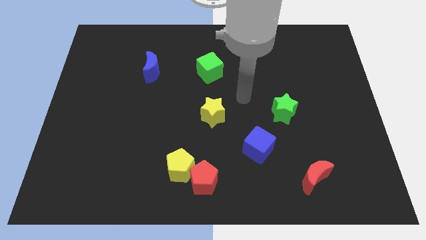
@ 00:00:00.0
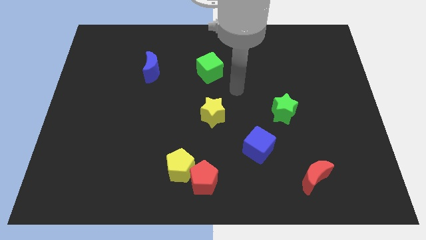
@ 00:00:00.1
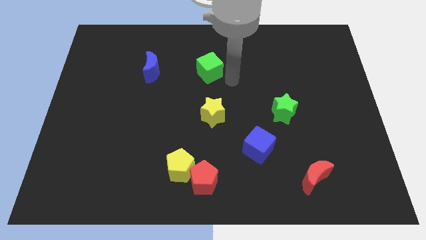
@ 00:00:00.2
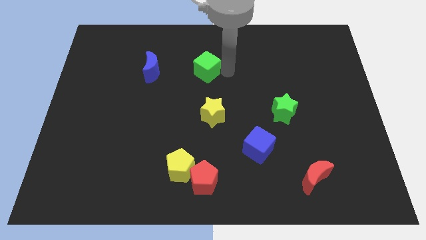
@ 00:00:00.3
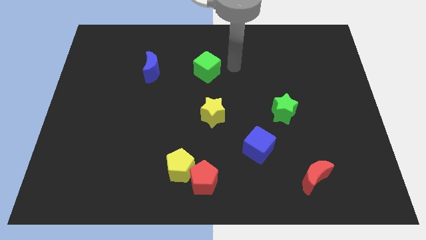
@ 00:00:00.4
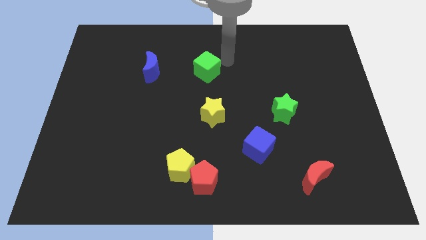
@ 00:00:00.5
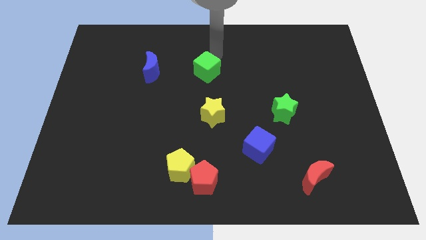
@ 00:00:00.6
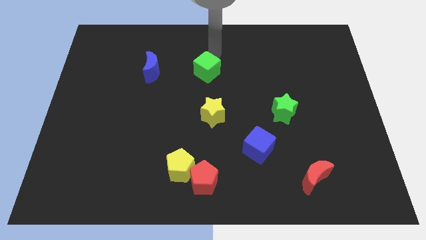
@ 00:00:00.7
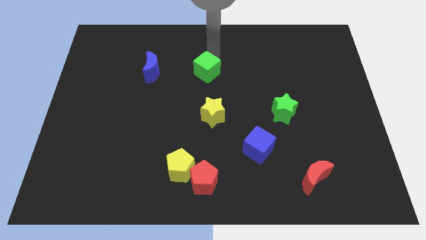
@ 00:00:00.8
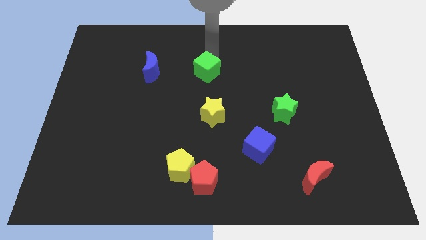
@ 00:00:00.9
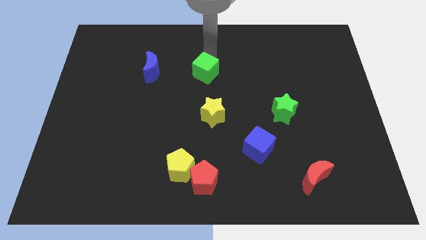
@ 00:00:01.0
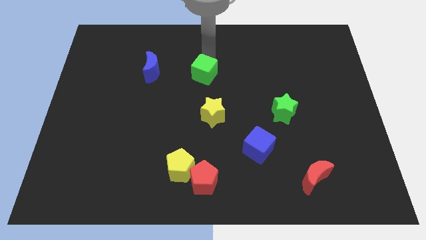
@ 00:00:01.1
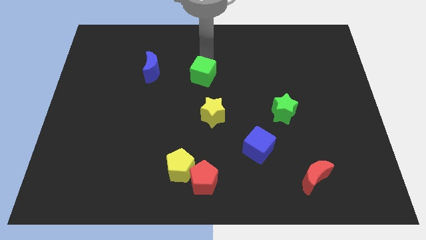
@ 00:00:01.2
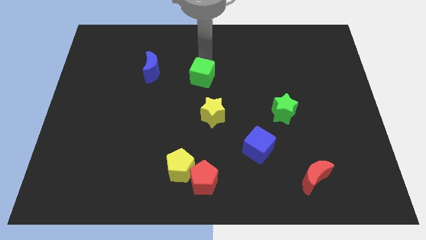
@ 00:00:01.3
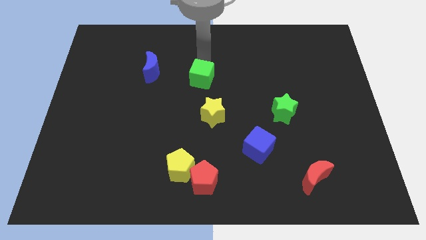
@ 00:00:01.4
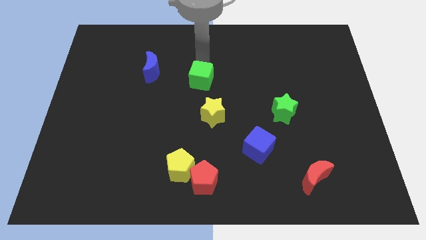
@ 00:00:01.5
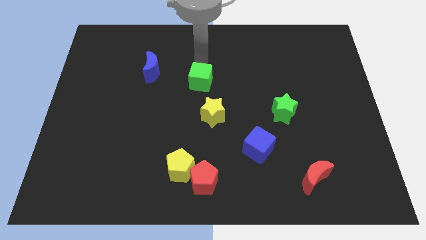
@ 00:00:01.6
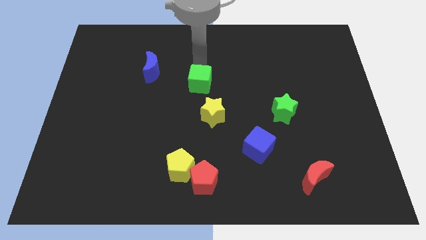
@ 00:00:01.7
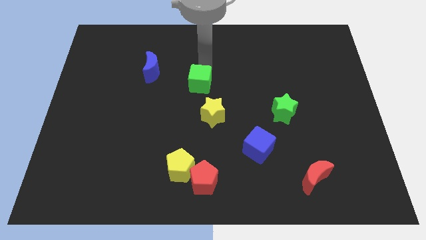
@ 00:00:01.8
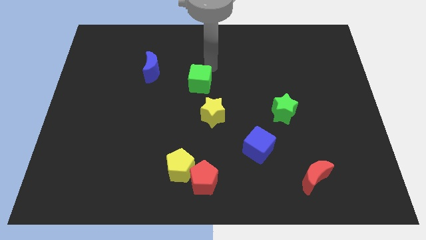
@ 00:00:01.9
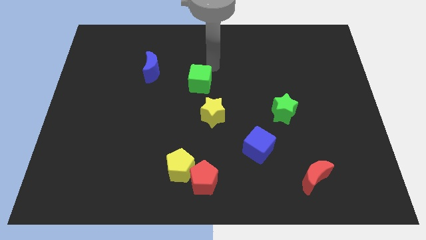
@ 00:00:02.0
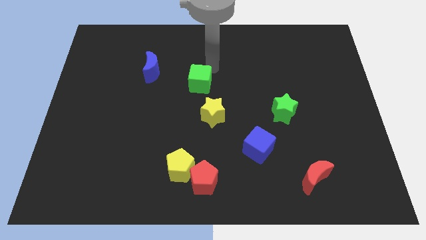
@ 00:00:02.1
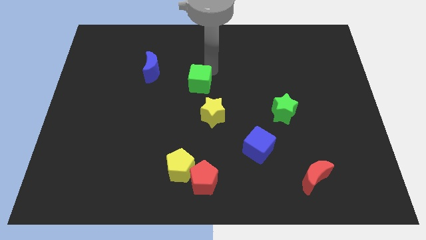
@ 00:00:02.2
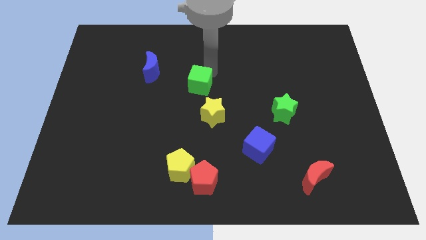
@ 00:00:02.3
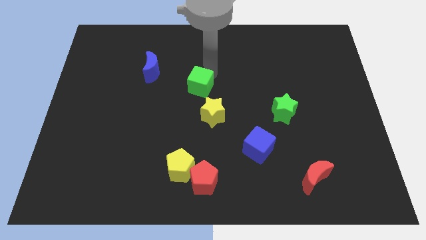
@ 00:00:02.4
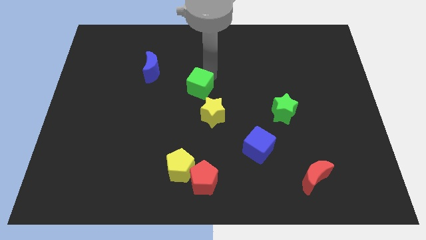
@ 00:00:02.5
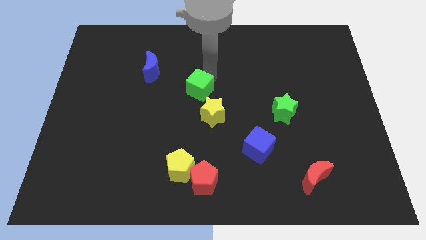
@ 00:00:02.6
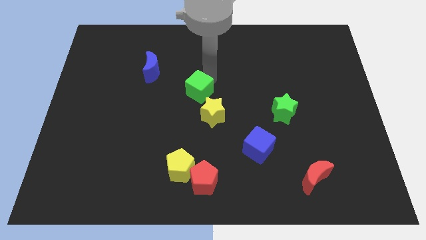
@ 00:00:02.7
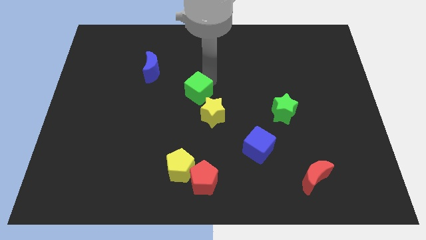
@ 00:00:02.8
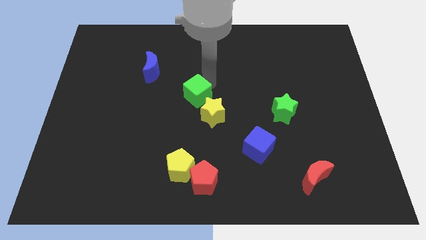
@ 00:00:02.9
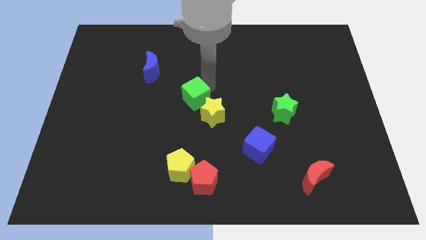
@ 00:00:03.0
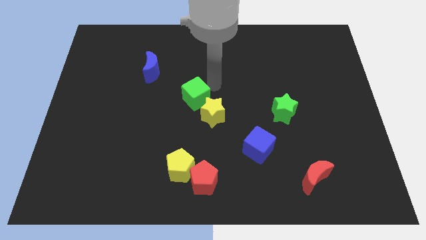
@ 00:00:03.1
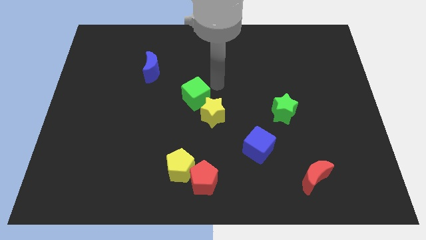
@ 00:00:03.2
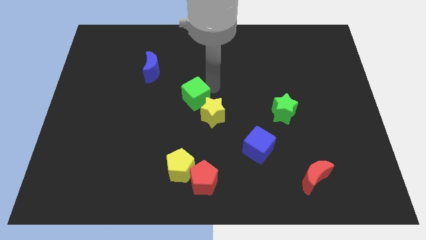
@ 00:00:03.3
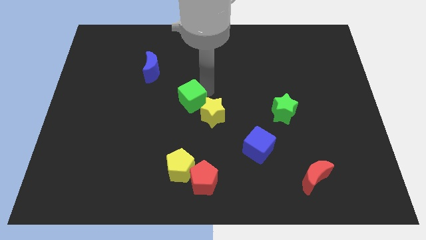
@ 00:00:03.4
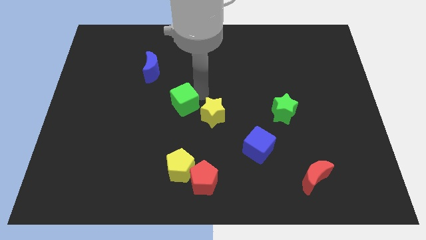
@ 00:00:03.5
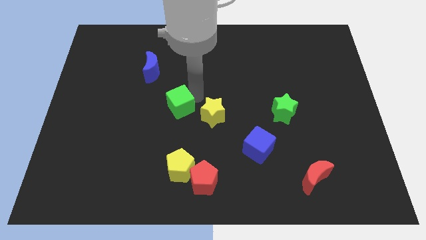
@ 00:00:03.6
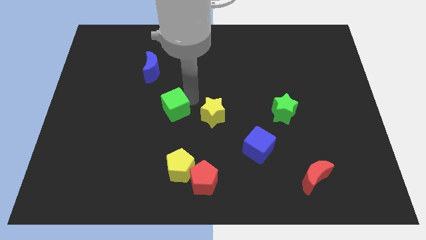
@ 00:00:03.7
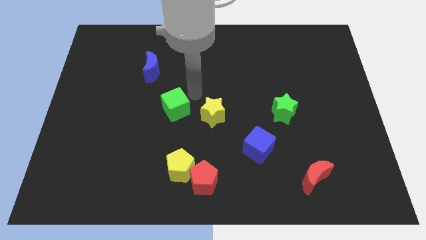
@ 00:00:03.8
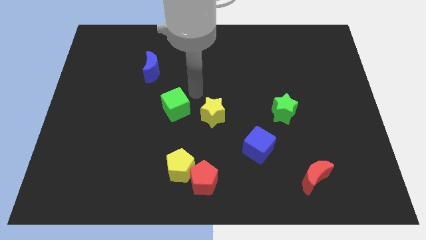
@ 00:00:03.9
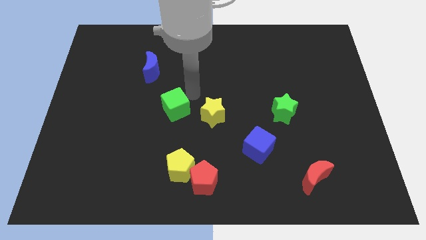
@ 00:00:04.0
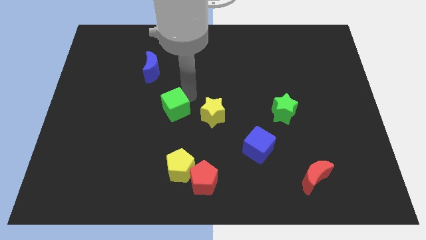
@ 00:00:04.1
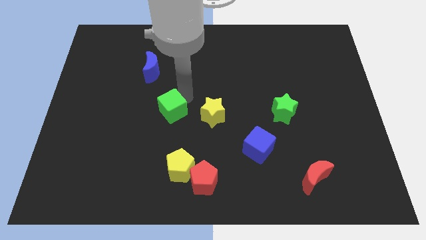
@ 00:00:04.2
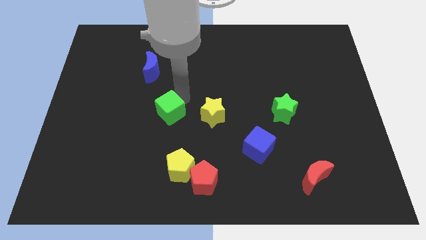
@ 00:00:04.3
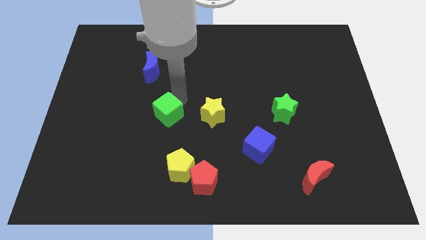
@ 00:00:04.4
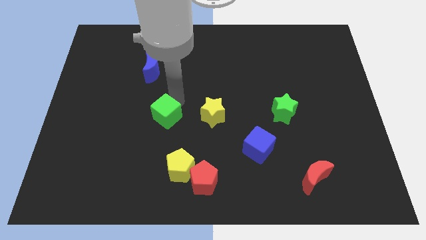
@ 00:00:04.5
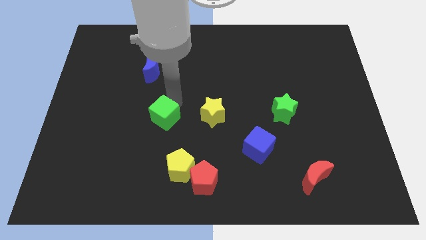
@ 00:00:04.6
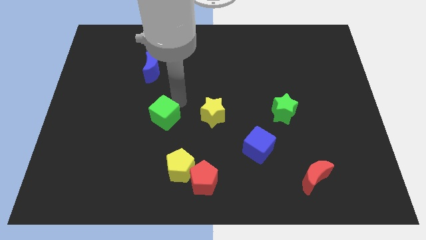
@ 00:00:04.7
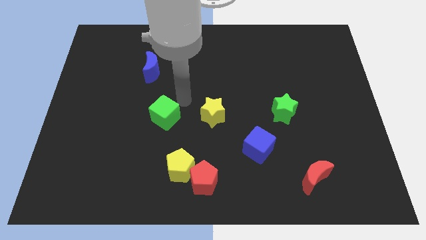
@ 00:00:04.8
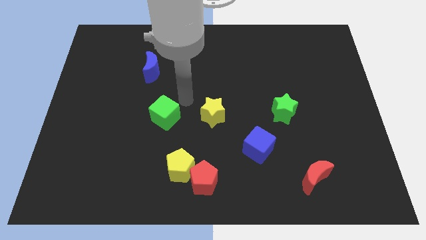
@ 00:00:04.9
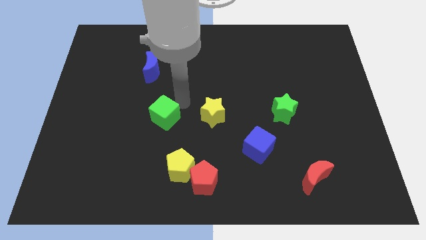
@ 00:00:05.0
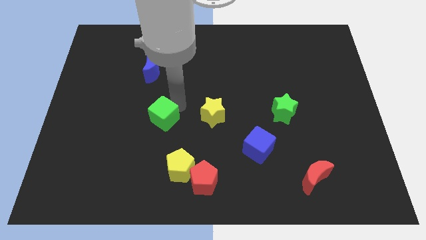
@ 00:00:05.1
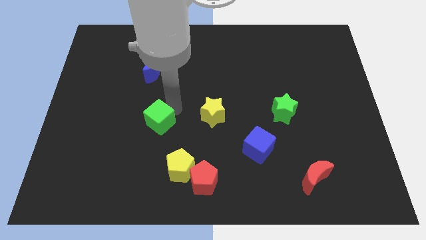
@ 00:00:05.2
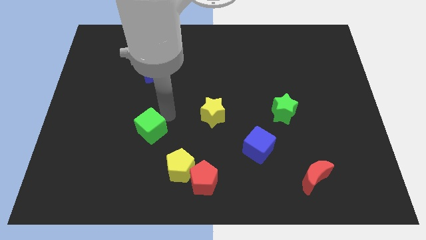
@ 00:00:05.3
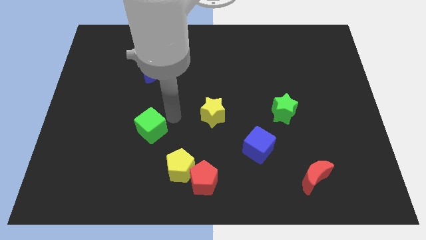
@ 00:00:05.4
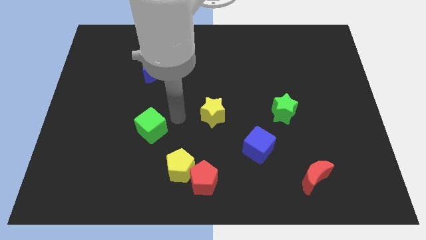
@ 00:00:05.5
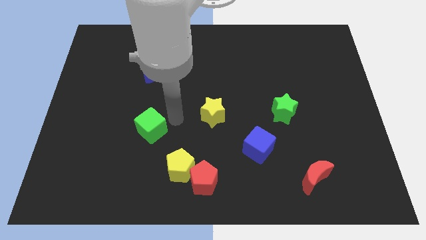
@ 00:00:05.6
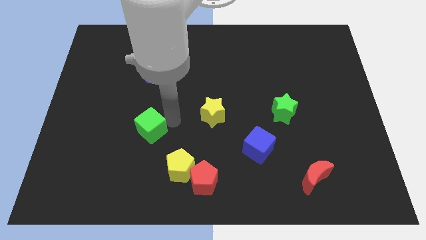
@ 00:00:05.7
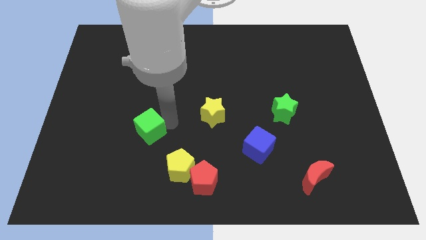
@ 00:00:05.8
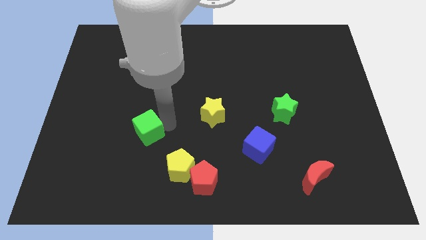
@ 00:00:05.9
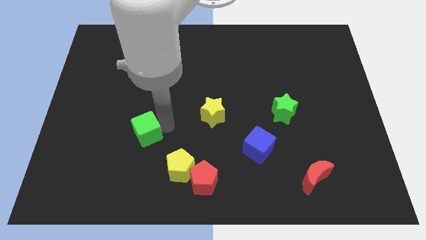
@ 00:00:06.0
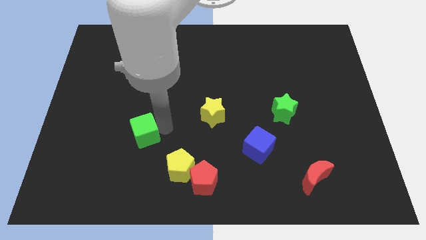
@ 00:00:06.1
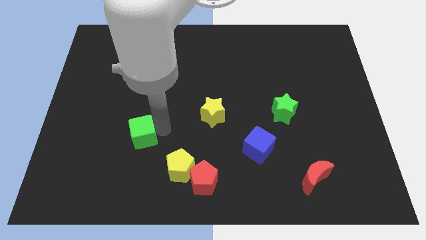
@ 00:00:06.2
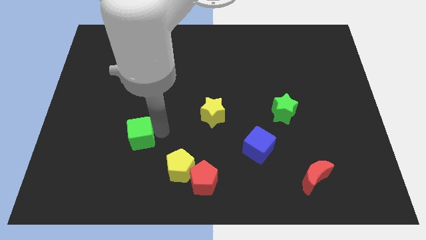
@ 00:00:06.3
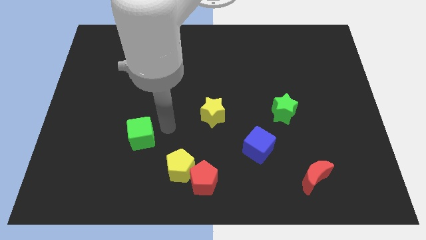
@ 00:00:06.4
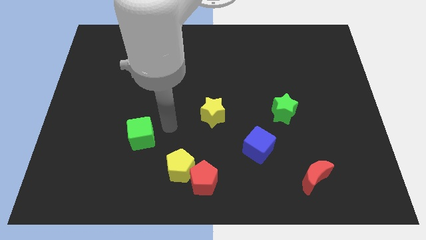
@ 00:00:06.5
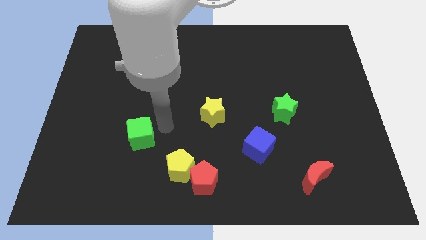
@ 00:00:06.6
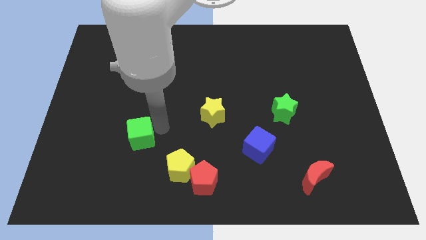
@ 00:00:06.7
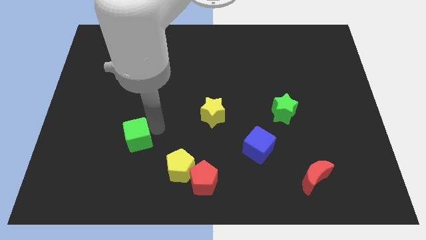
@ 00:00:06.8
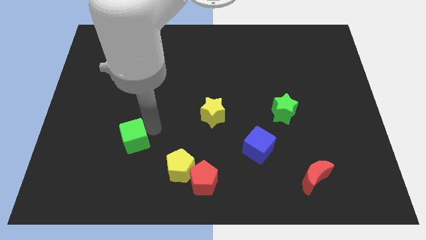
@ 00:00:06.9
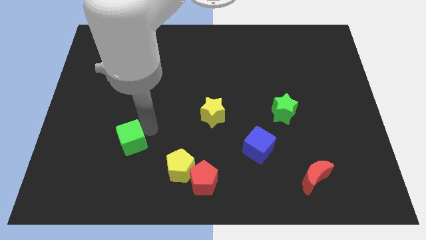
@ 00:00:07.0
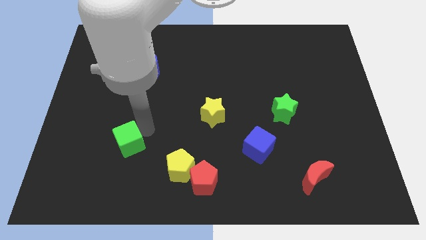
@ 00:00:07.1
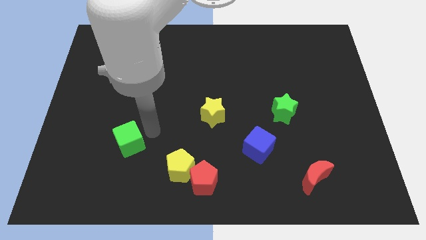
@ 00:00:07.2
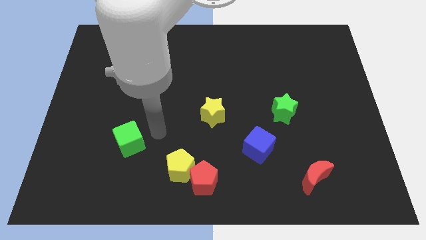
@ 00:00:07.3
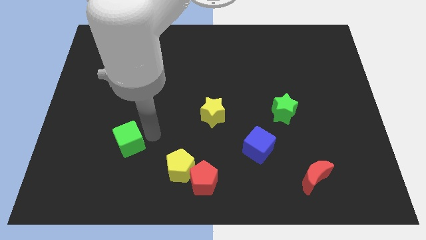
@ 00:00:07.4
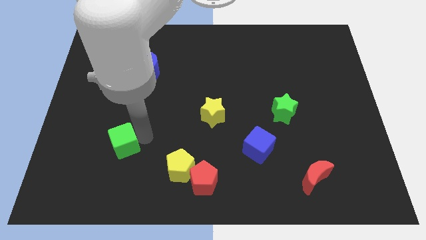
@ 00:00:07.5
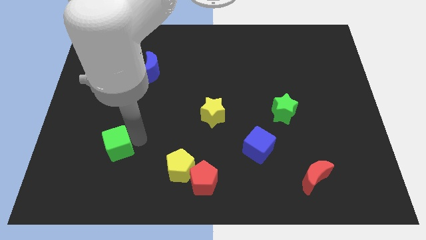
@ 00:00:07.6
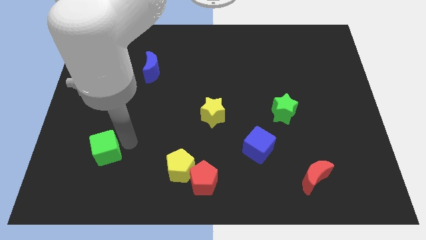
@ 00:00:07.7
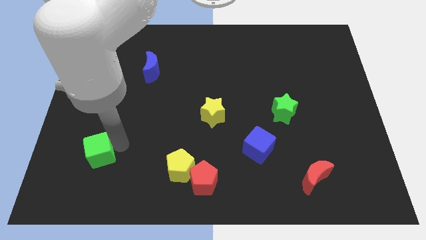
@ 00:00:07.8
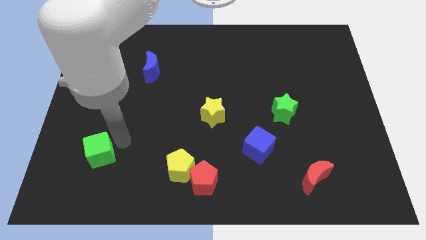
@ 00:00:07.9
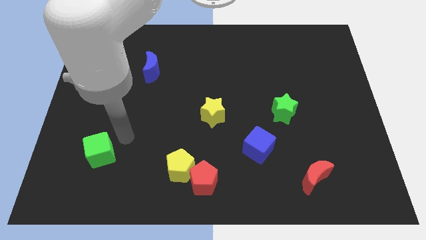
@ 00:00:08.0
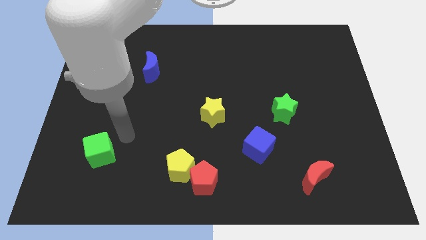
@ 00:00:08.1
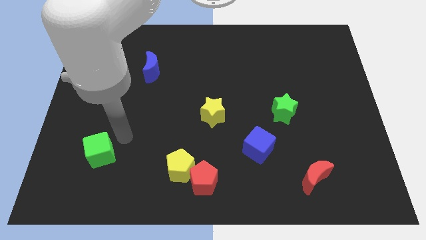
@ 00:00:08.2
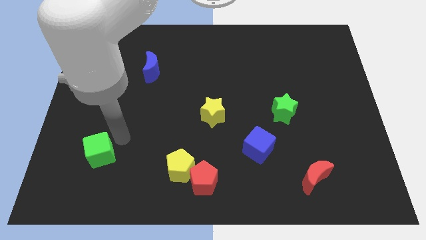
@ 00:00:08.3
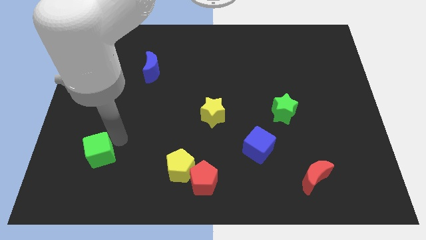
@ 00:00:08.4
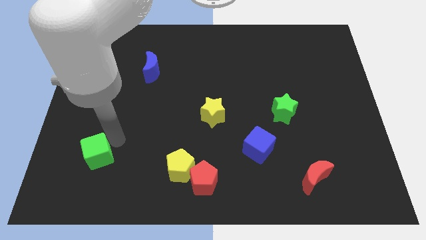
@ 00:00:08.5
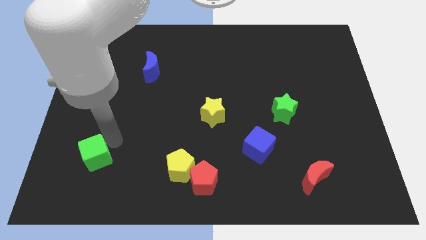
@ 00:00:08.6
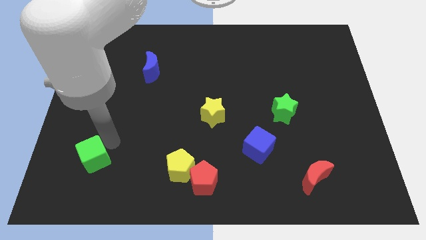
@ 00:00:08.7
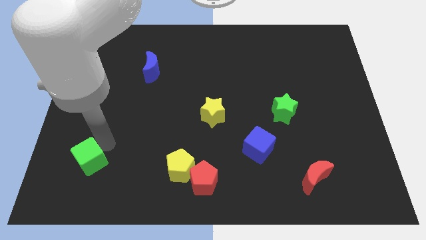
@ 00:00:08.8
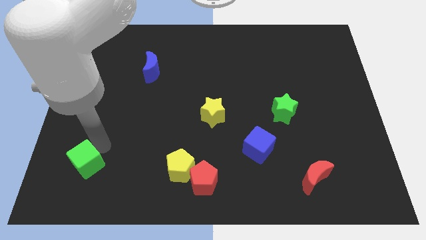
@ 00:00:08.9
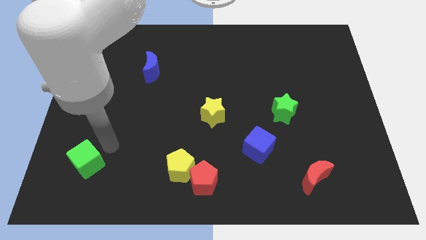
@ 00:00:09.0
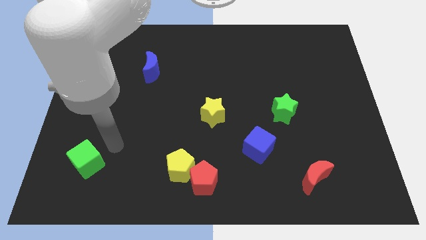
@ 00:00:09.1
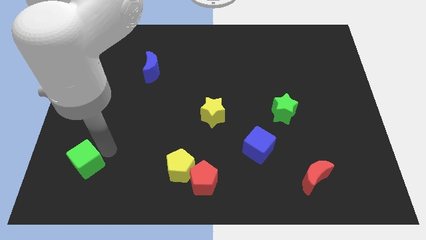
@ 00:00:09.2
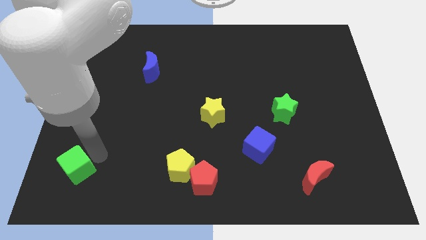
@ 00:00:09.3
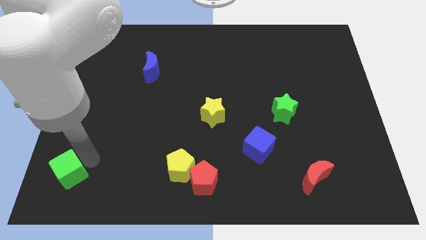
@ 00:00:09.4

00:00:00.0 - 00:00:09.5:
move the green cube to the bottom left of the board
